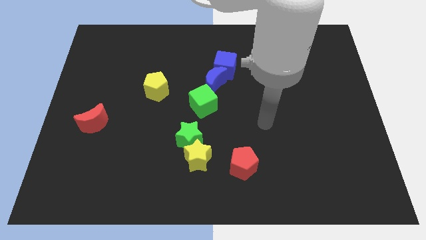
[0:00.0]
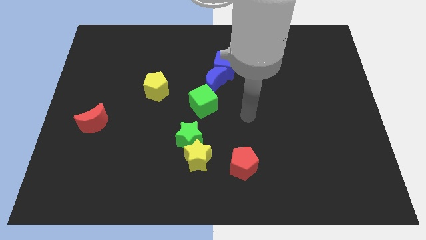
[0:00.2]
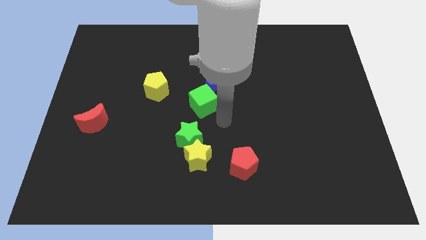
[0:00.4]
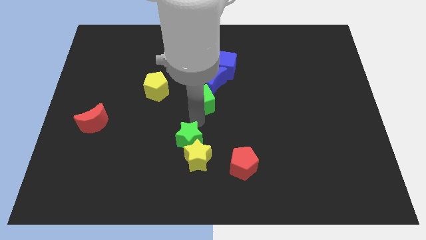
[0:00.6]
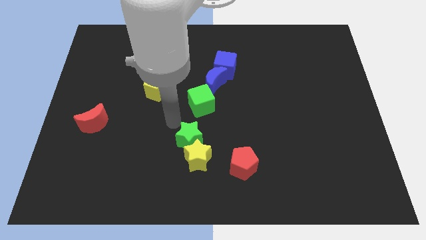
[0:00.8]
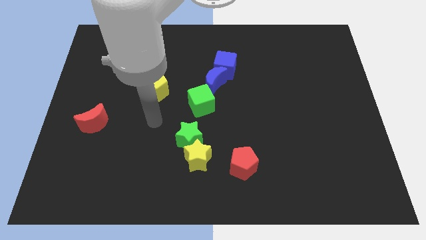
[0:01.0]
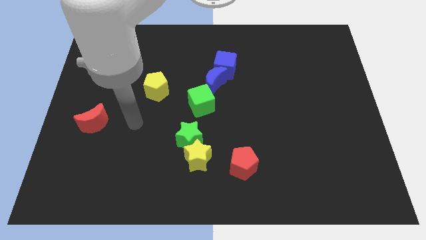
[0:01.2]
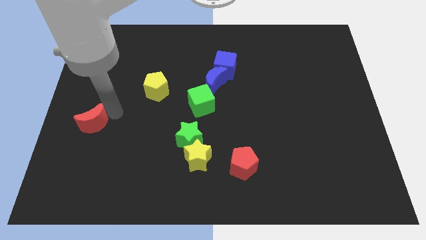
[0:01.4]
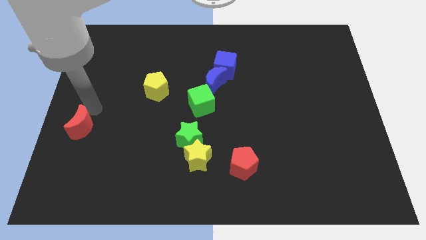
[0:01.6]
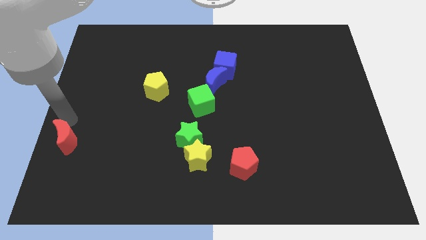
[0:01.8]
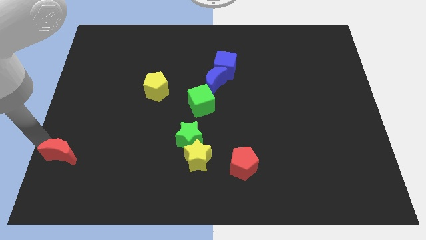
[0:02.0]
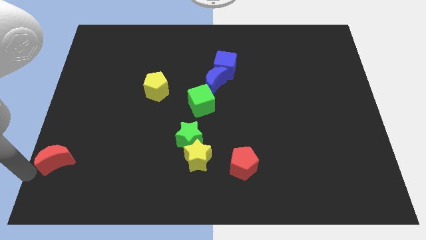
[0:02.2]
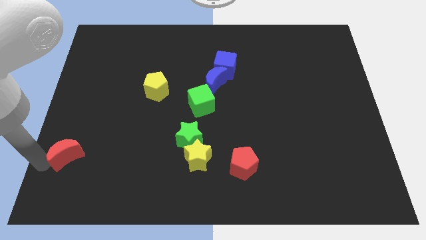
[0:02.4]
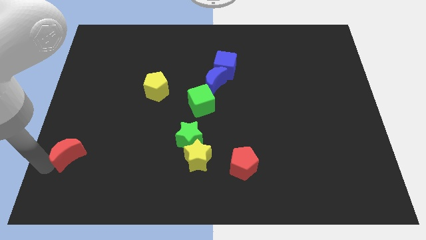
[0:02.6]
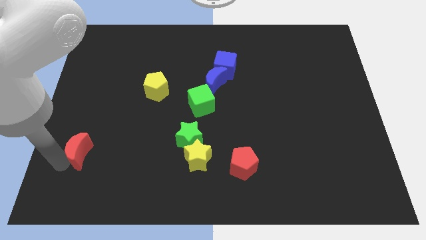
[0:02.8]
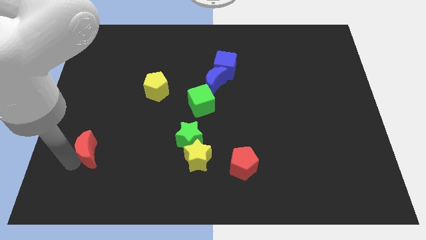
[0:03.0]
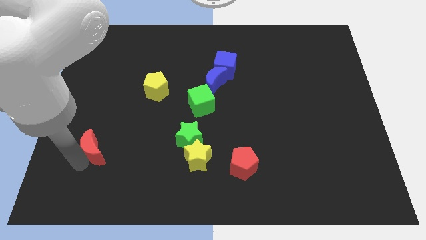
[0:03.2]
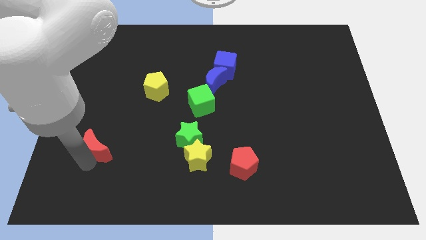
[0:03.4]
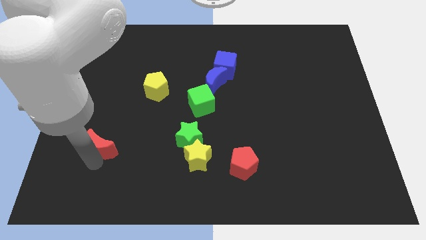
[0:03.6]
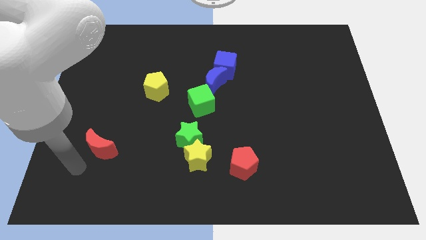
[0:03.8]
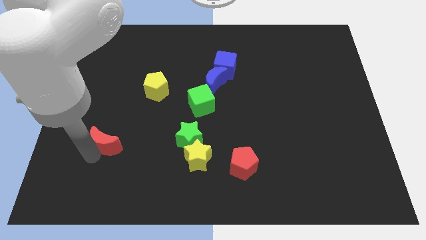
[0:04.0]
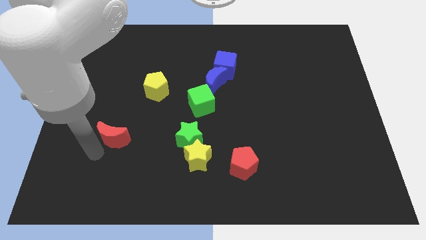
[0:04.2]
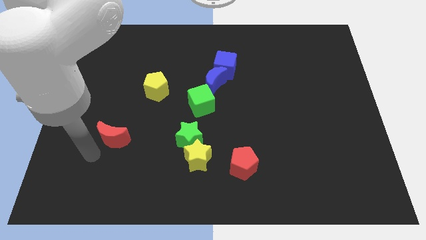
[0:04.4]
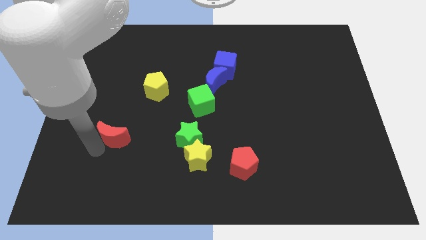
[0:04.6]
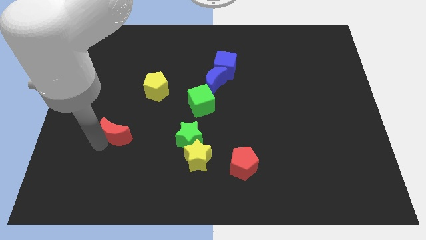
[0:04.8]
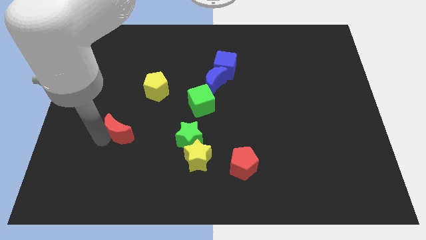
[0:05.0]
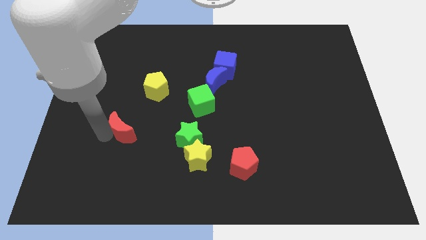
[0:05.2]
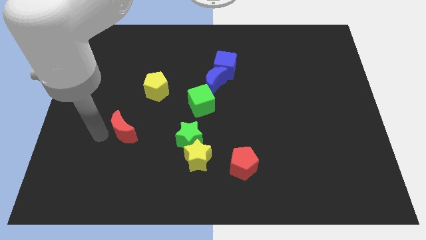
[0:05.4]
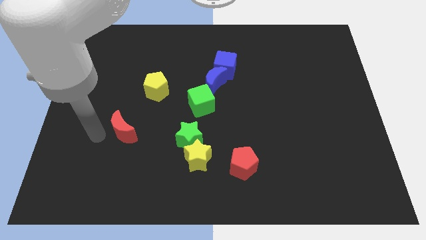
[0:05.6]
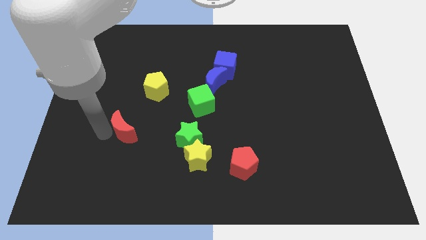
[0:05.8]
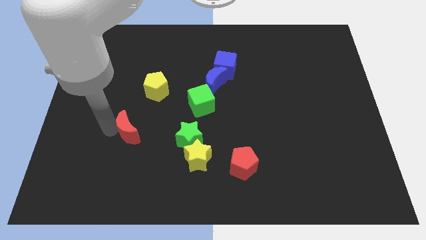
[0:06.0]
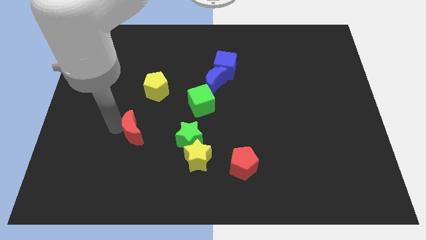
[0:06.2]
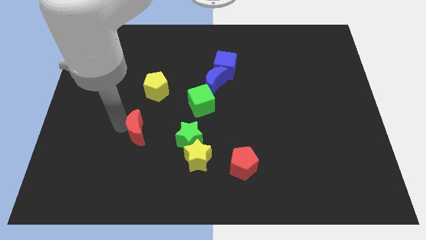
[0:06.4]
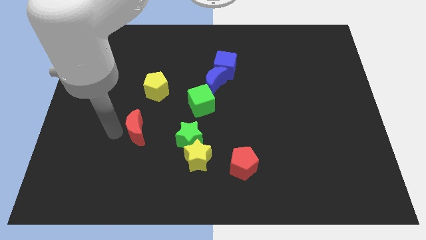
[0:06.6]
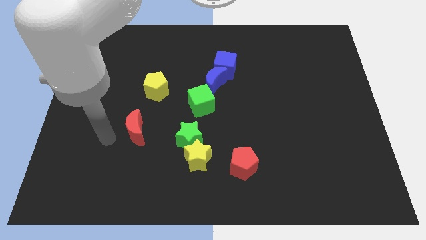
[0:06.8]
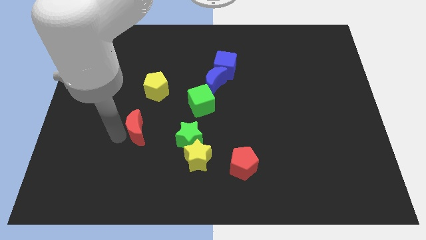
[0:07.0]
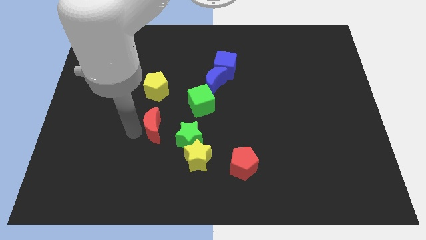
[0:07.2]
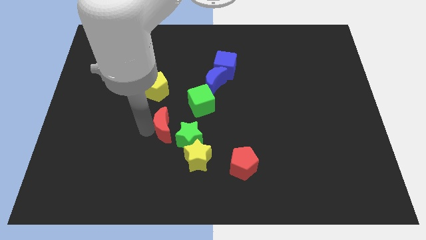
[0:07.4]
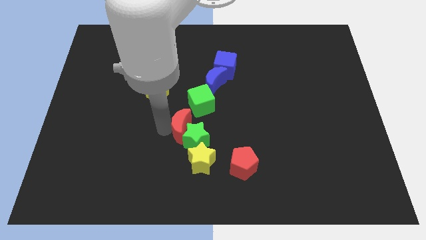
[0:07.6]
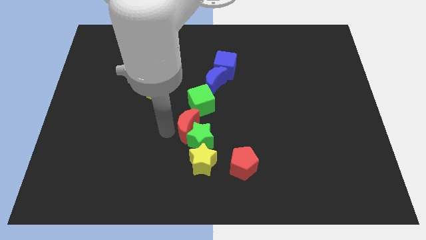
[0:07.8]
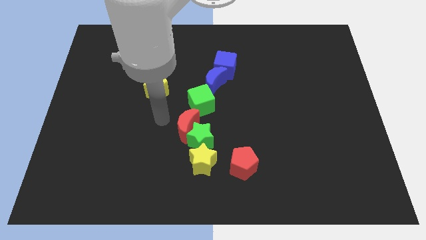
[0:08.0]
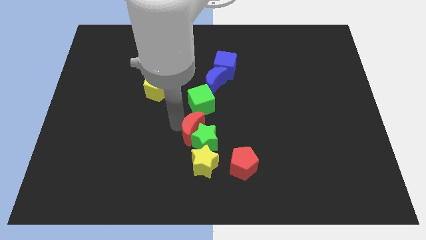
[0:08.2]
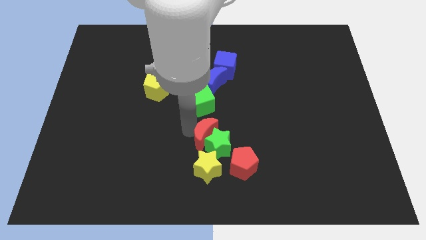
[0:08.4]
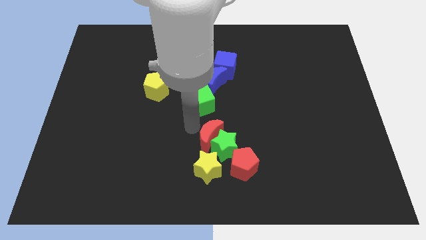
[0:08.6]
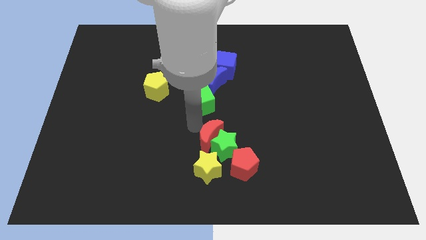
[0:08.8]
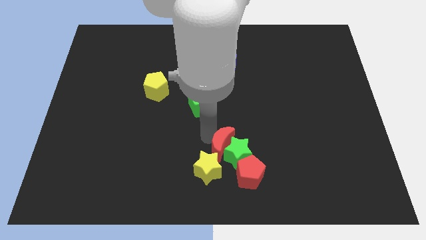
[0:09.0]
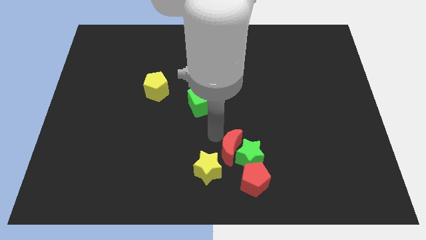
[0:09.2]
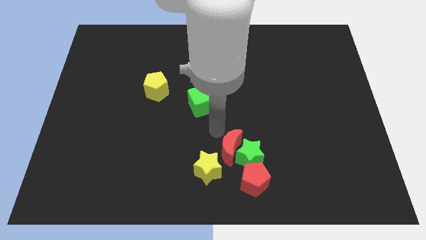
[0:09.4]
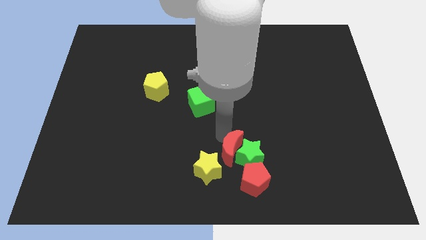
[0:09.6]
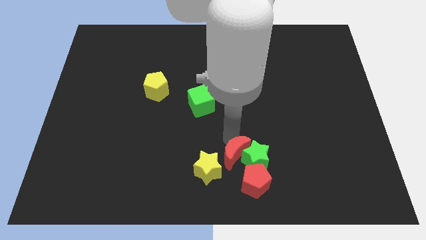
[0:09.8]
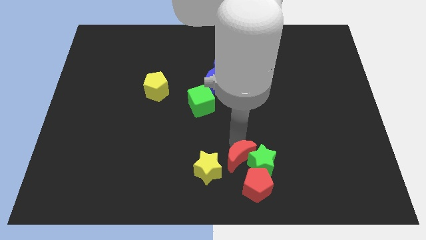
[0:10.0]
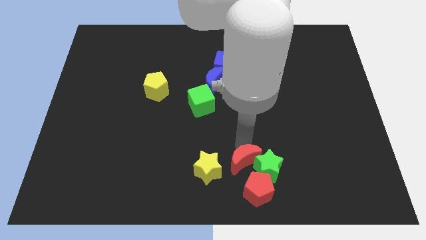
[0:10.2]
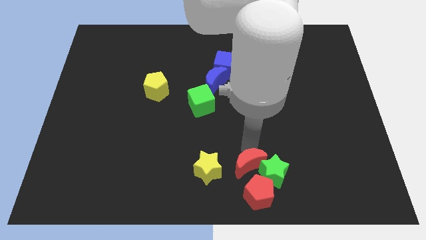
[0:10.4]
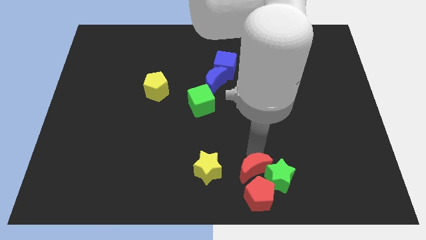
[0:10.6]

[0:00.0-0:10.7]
slide the red moon to the red pentagon

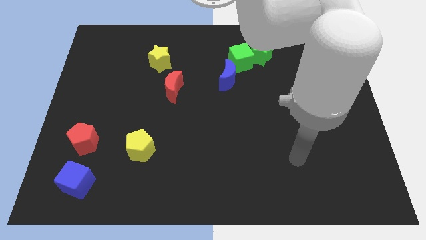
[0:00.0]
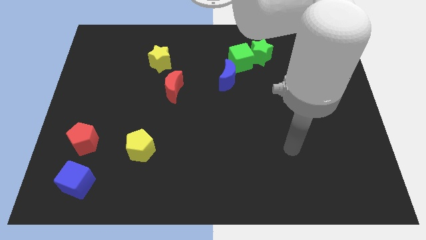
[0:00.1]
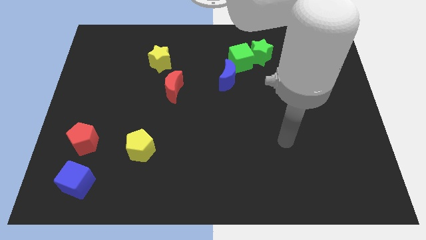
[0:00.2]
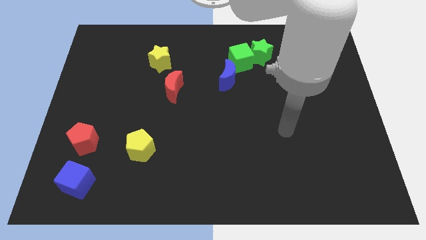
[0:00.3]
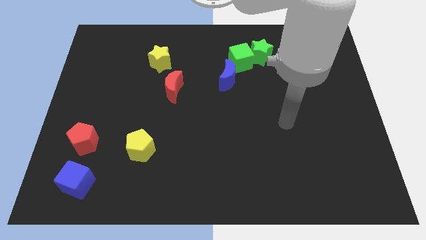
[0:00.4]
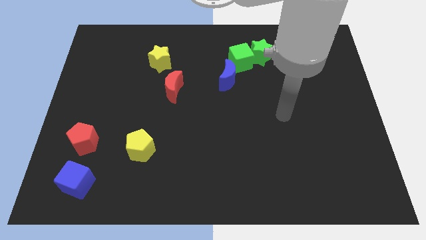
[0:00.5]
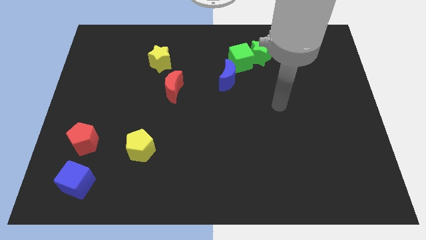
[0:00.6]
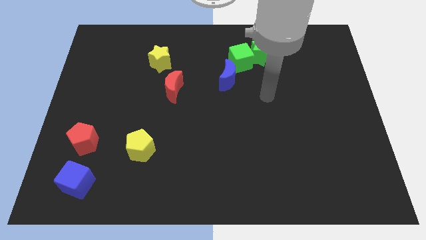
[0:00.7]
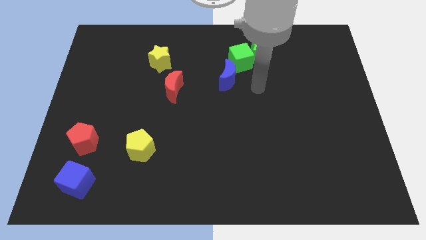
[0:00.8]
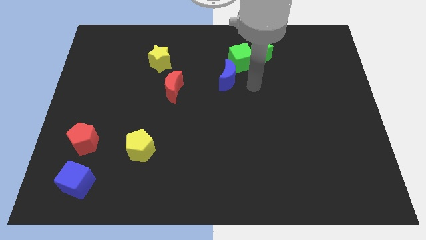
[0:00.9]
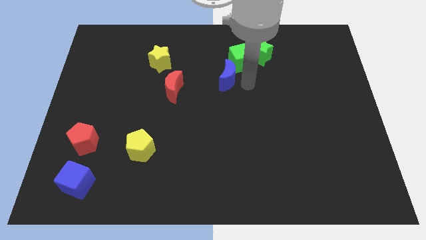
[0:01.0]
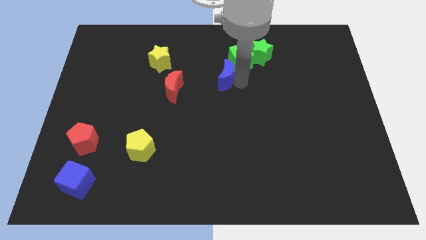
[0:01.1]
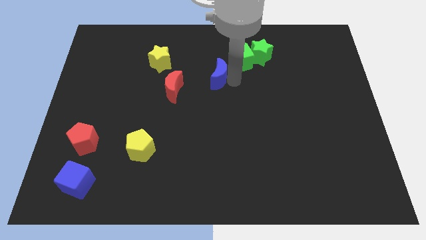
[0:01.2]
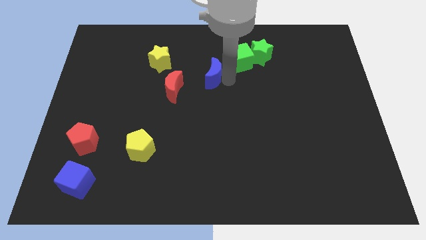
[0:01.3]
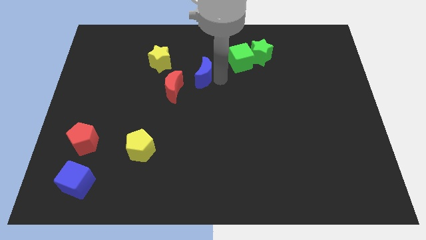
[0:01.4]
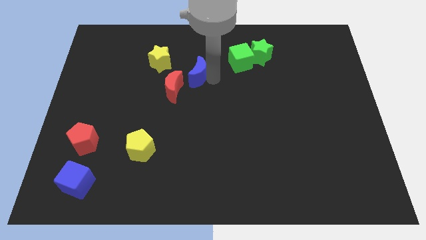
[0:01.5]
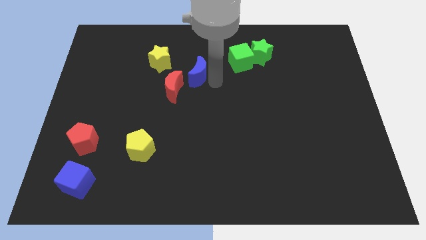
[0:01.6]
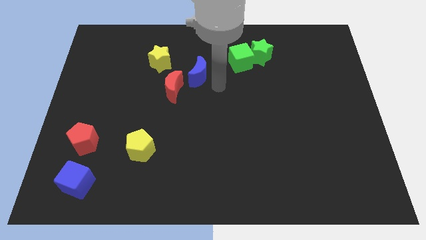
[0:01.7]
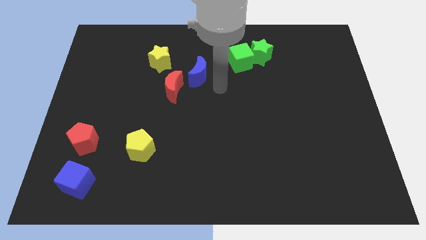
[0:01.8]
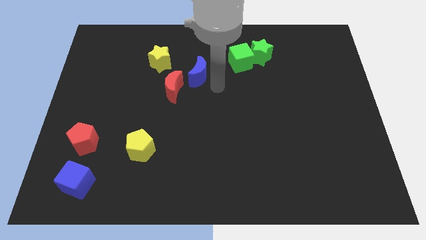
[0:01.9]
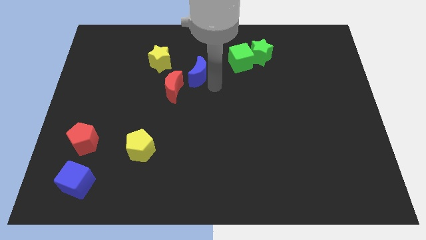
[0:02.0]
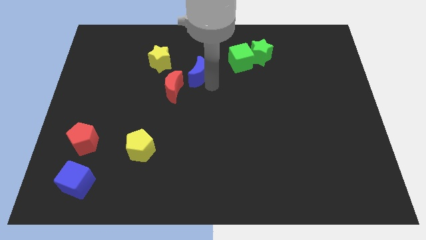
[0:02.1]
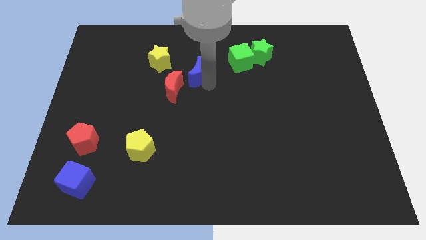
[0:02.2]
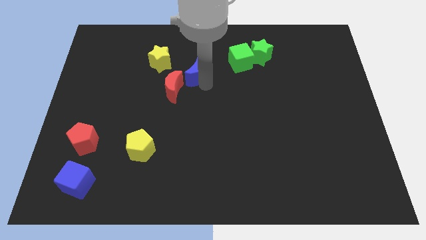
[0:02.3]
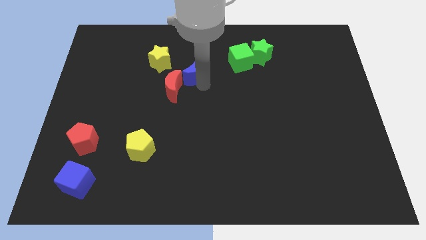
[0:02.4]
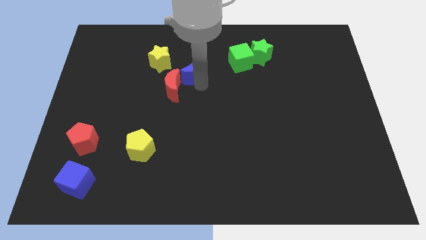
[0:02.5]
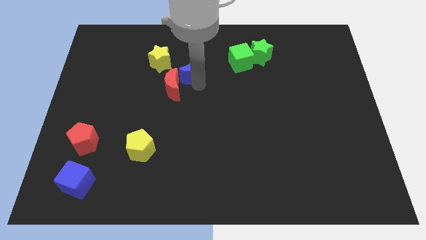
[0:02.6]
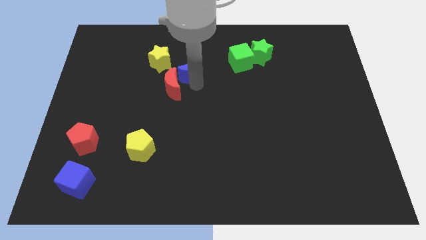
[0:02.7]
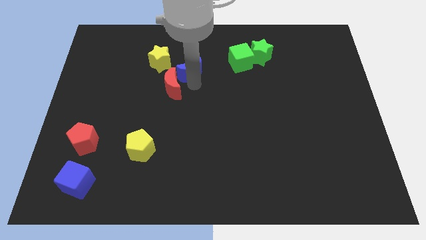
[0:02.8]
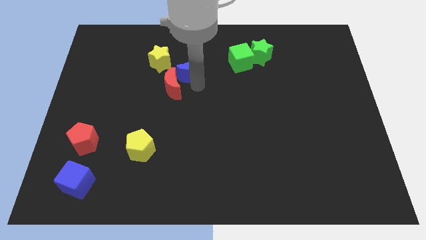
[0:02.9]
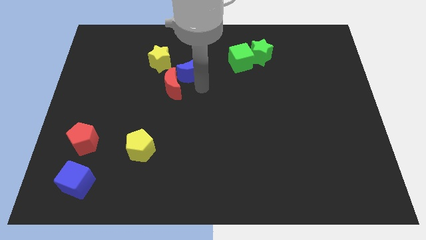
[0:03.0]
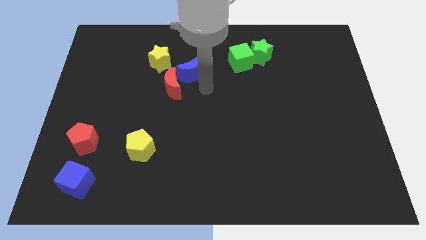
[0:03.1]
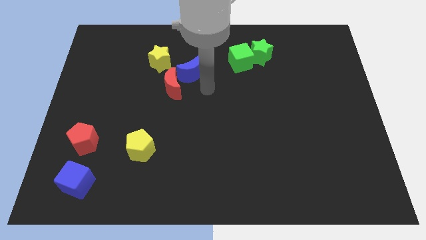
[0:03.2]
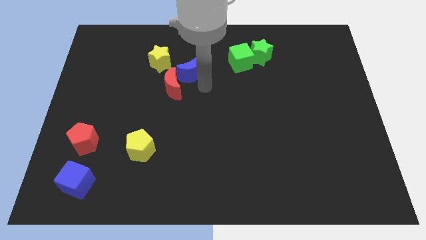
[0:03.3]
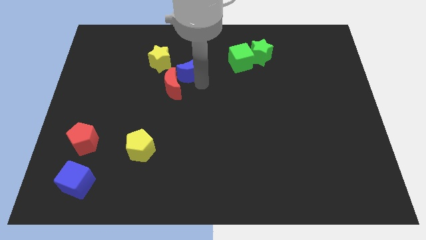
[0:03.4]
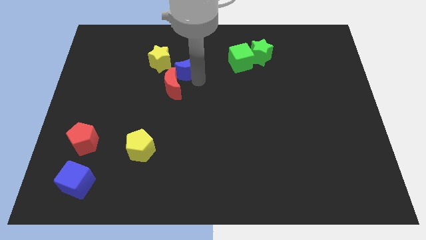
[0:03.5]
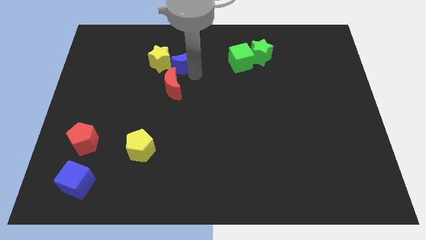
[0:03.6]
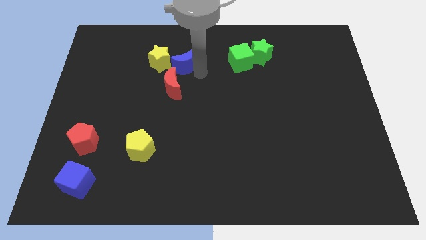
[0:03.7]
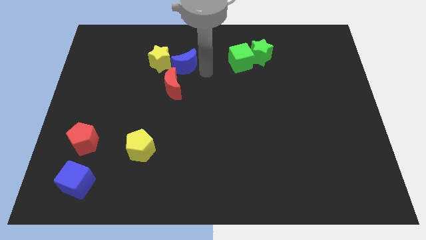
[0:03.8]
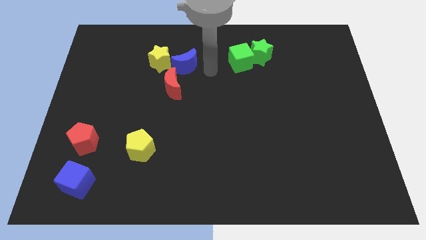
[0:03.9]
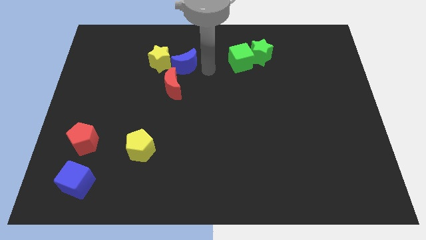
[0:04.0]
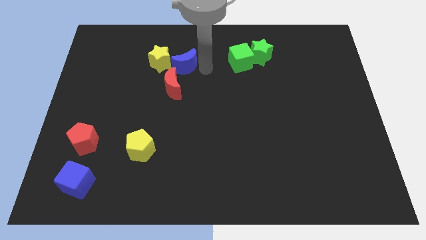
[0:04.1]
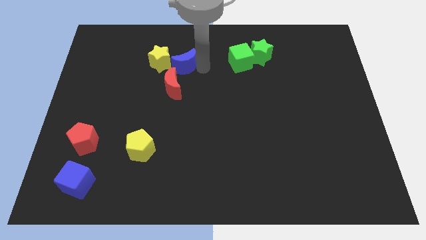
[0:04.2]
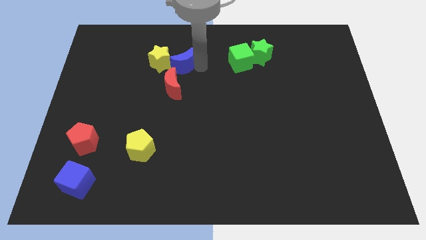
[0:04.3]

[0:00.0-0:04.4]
slide the blue moon towards the yellow star
